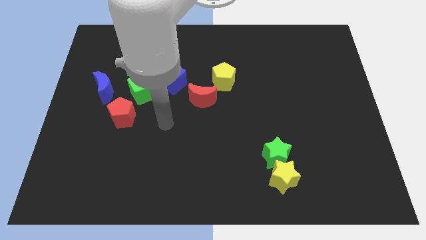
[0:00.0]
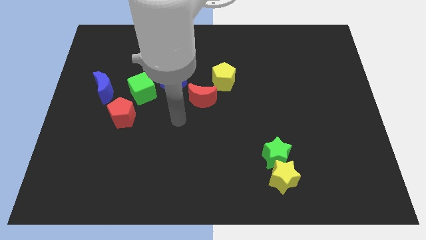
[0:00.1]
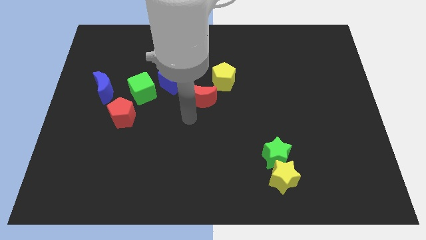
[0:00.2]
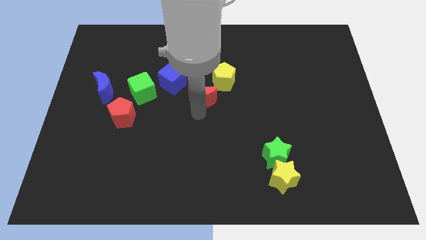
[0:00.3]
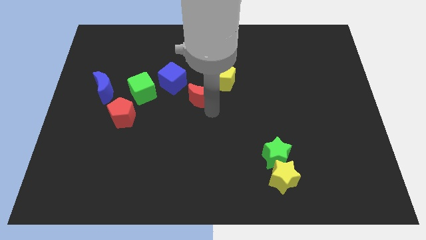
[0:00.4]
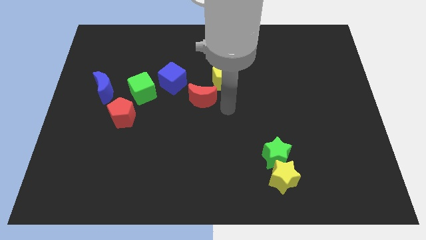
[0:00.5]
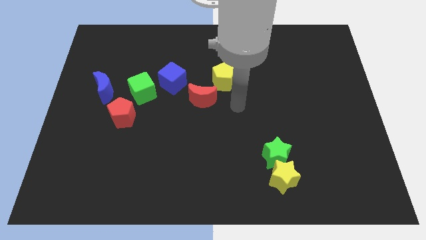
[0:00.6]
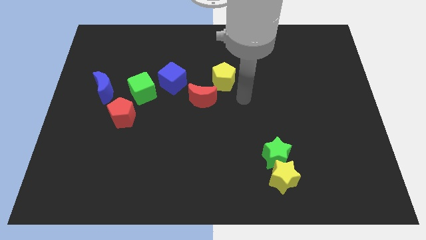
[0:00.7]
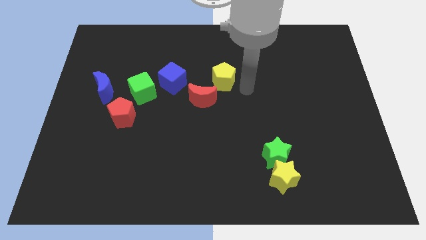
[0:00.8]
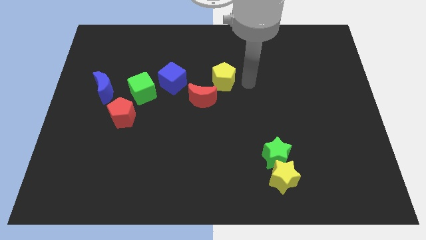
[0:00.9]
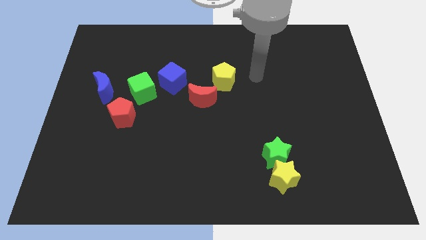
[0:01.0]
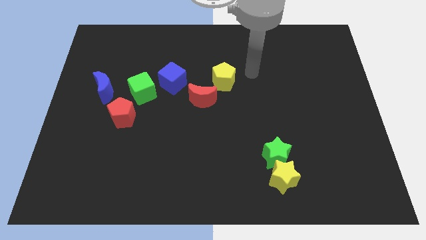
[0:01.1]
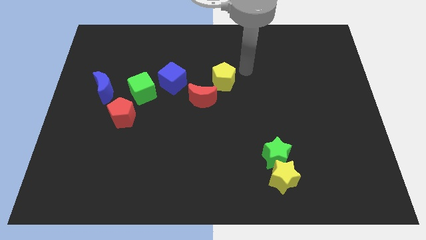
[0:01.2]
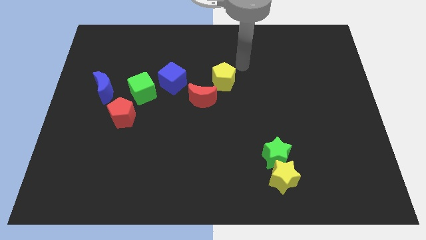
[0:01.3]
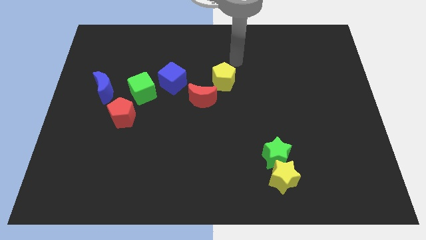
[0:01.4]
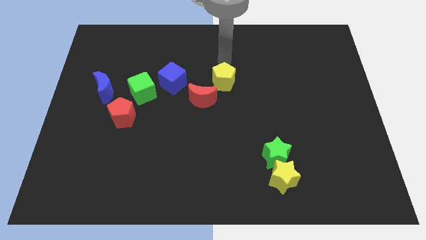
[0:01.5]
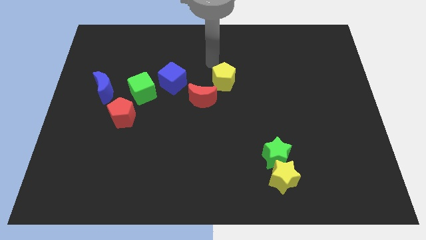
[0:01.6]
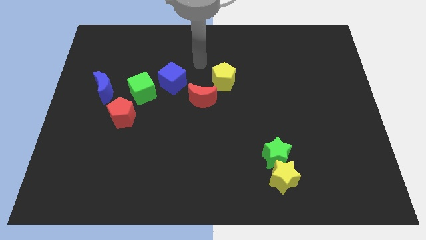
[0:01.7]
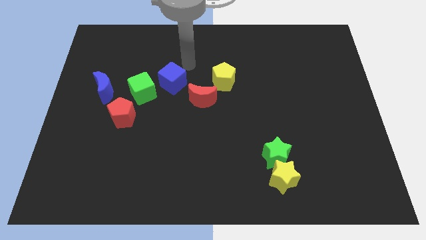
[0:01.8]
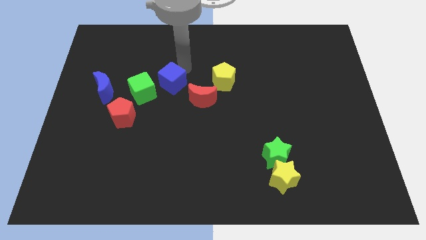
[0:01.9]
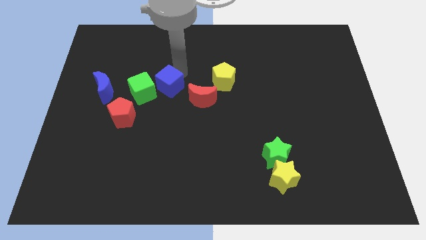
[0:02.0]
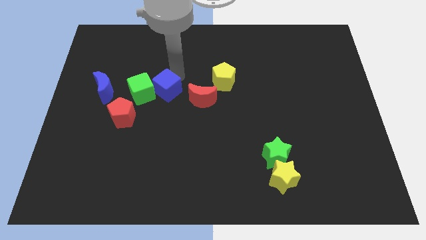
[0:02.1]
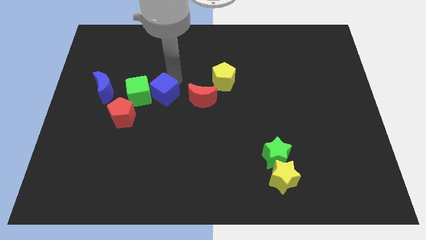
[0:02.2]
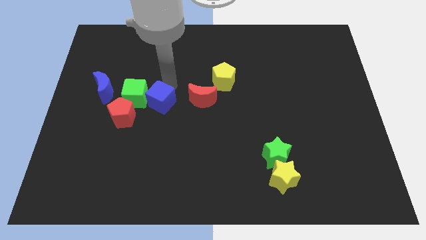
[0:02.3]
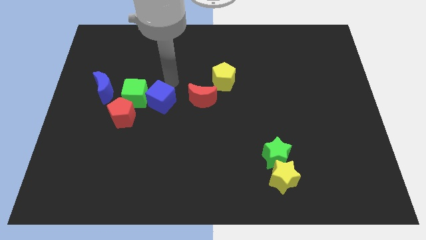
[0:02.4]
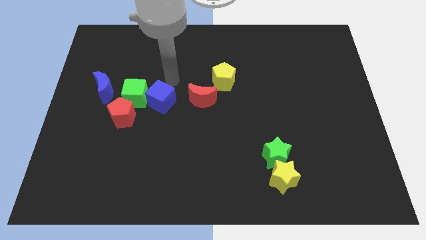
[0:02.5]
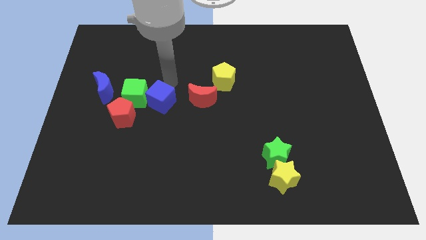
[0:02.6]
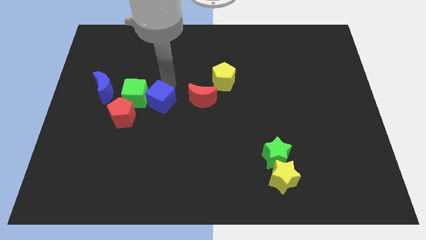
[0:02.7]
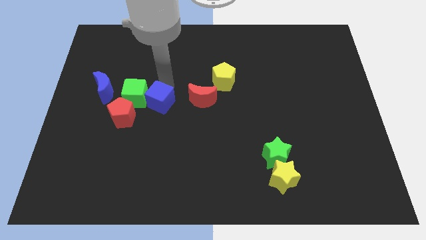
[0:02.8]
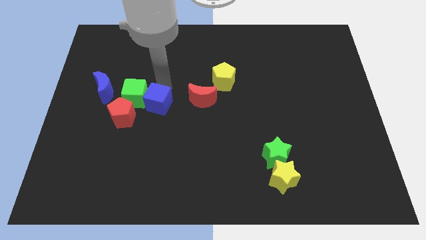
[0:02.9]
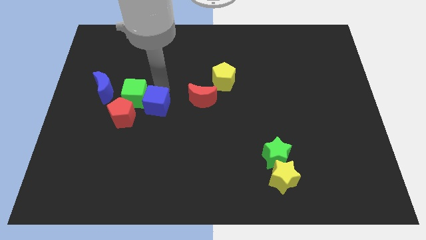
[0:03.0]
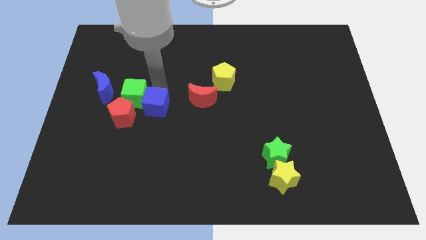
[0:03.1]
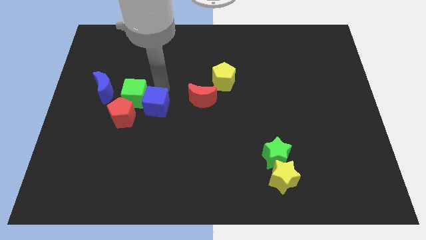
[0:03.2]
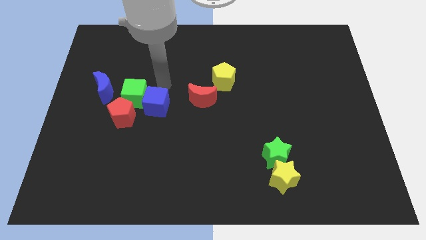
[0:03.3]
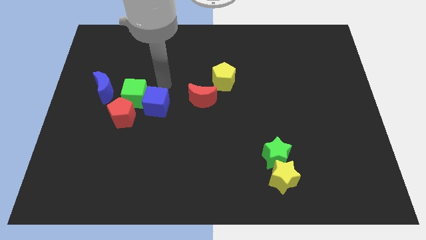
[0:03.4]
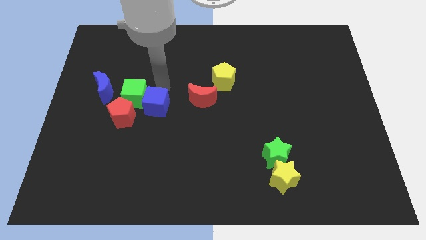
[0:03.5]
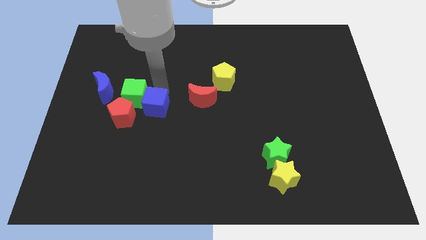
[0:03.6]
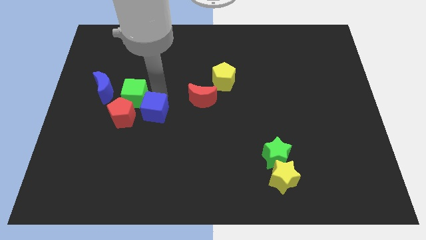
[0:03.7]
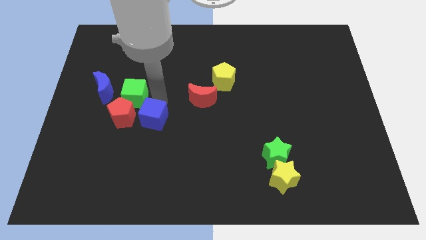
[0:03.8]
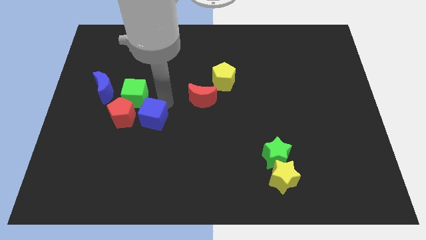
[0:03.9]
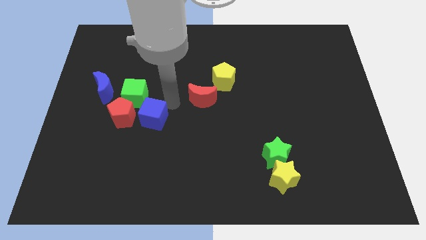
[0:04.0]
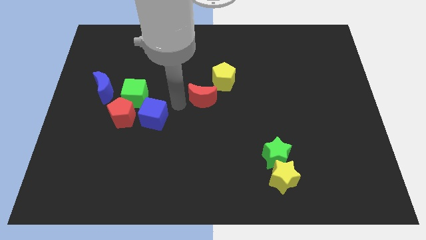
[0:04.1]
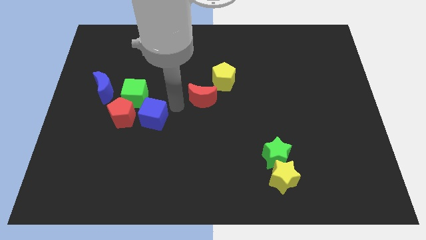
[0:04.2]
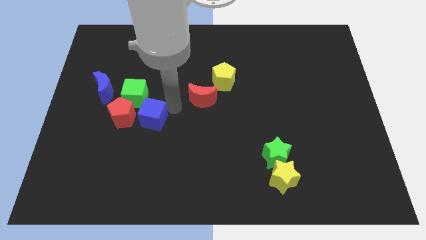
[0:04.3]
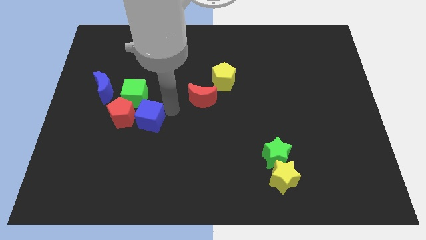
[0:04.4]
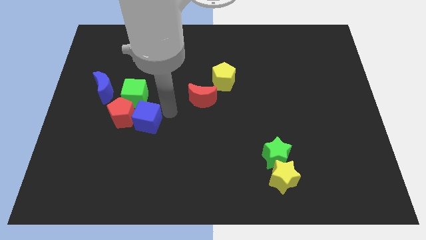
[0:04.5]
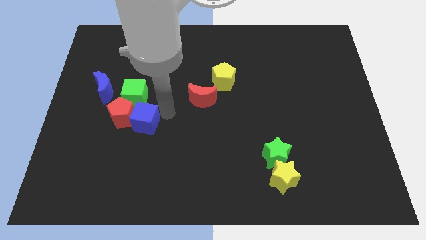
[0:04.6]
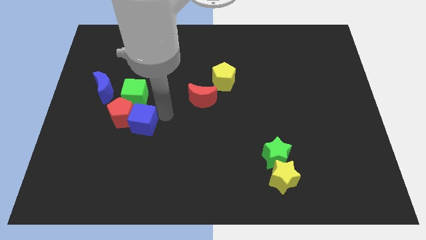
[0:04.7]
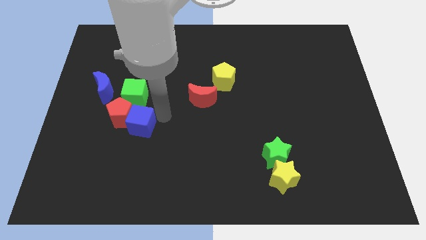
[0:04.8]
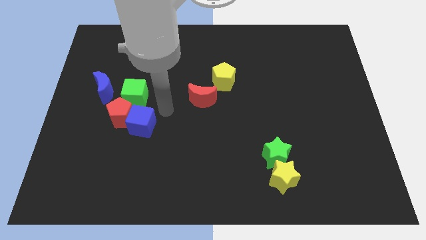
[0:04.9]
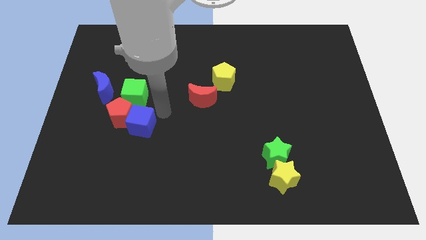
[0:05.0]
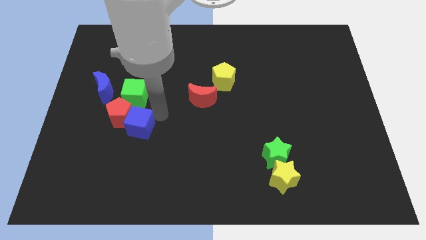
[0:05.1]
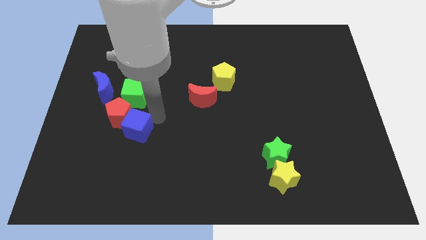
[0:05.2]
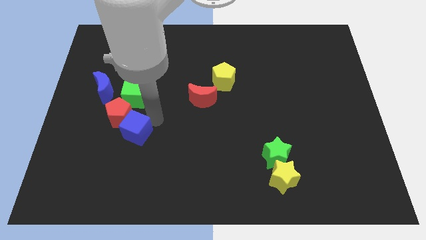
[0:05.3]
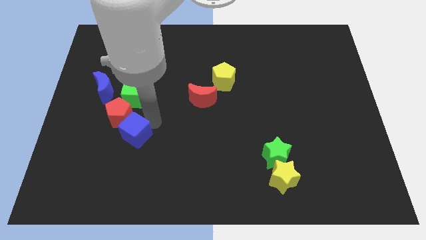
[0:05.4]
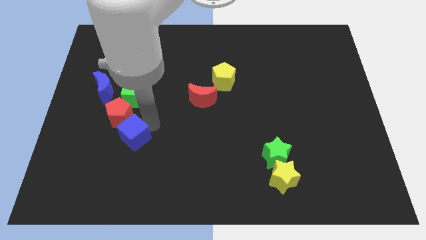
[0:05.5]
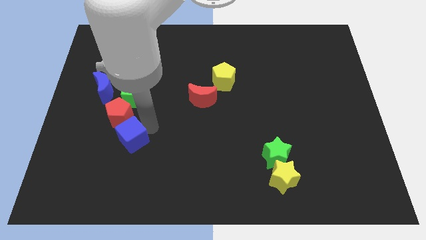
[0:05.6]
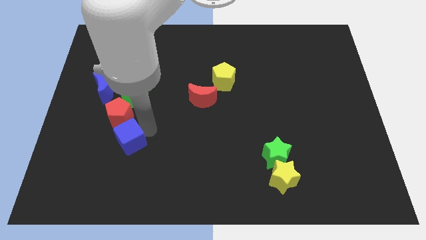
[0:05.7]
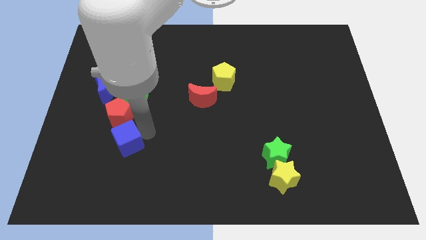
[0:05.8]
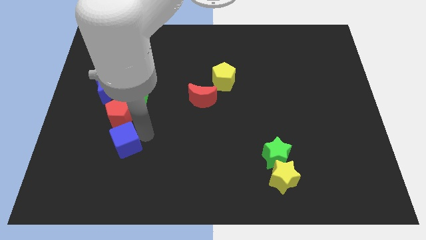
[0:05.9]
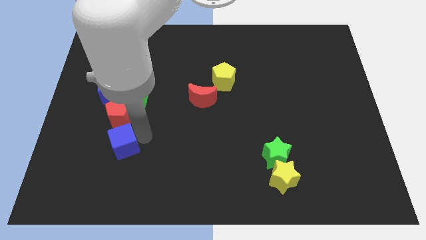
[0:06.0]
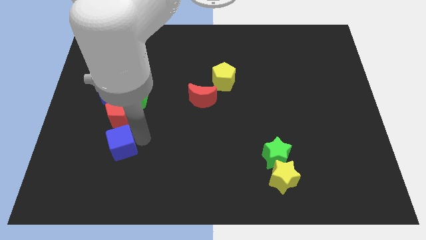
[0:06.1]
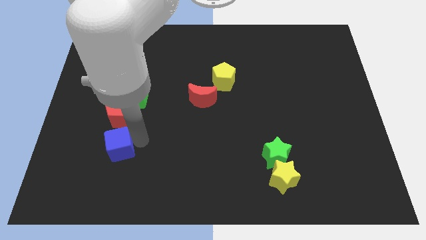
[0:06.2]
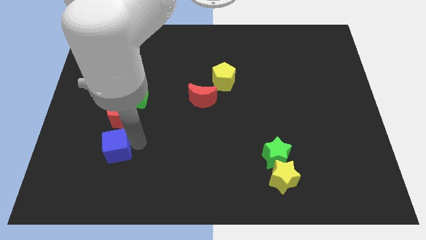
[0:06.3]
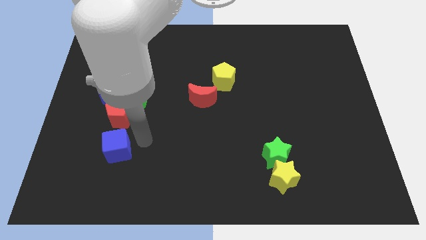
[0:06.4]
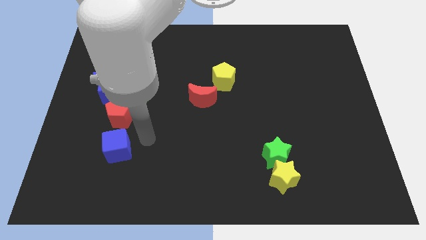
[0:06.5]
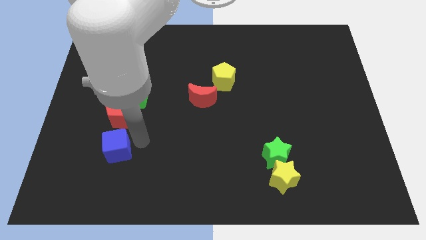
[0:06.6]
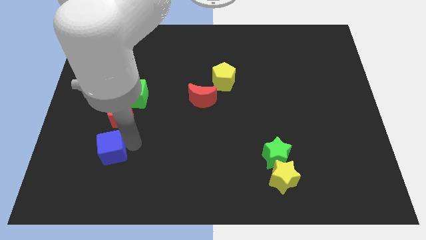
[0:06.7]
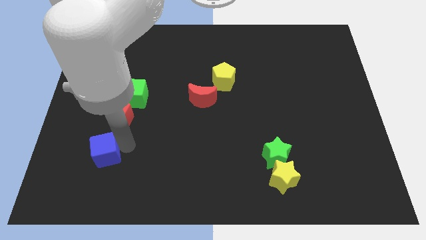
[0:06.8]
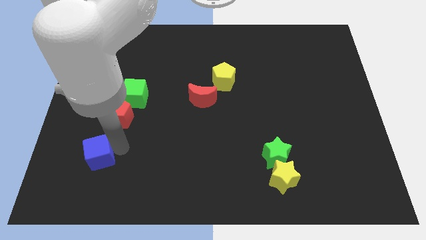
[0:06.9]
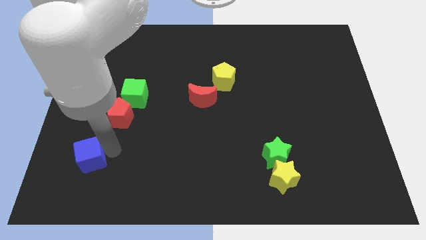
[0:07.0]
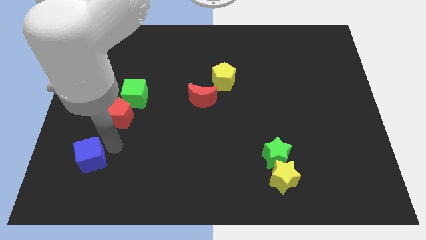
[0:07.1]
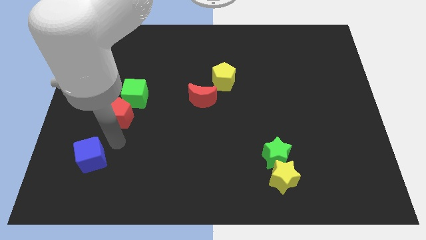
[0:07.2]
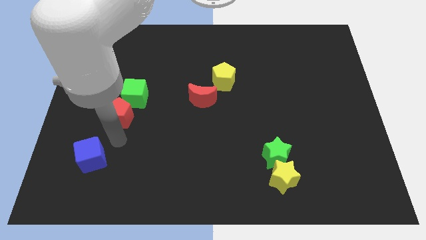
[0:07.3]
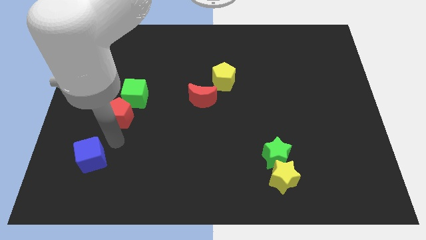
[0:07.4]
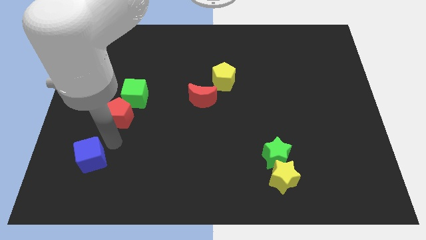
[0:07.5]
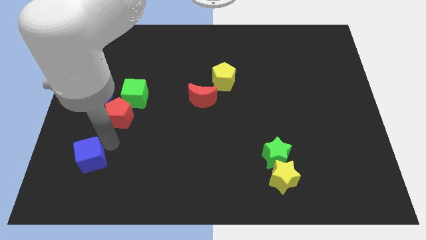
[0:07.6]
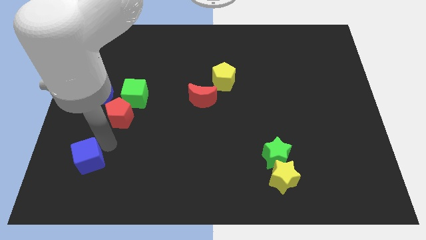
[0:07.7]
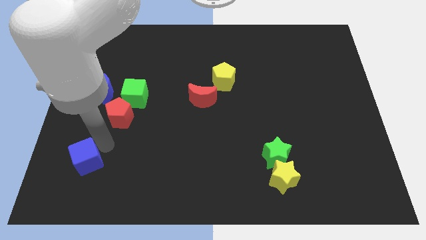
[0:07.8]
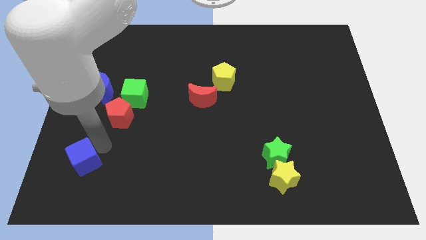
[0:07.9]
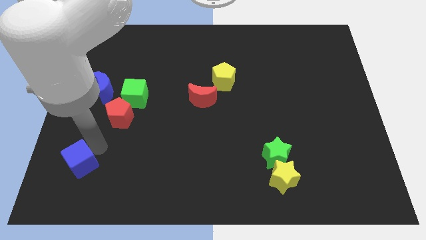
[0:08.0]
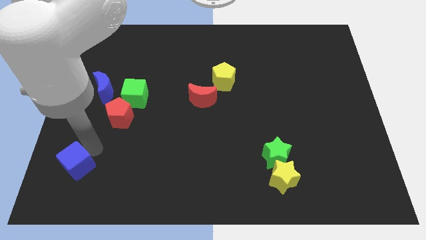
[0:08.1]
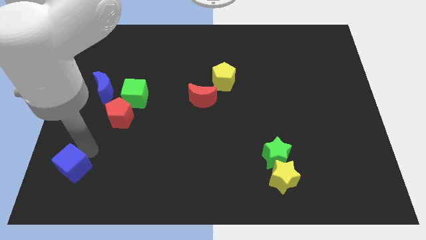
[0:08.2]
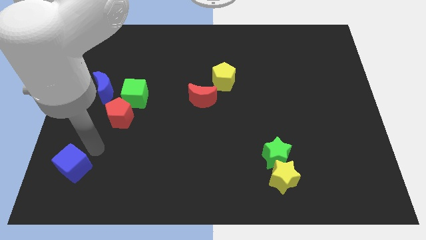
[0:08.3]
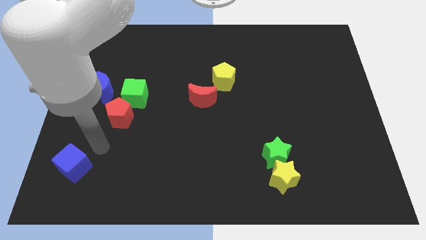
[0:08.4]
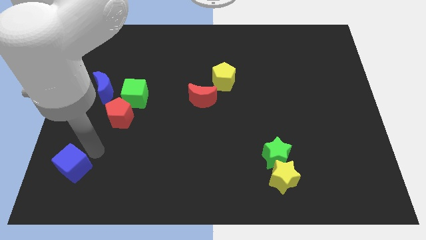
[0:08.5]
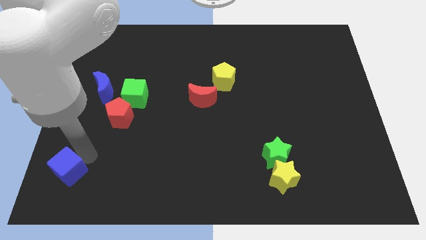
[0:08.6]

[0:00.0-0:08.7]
put the blue cube to the lower left corner
